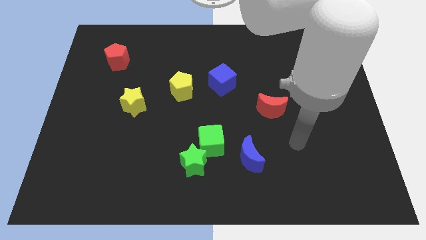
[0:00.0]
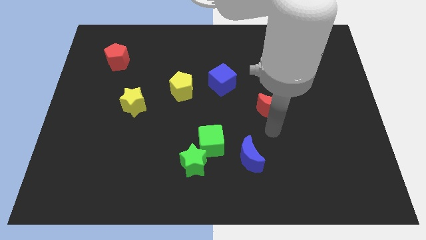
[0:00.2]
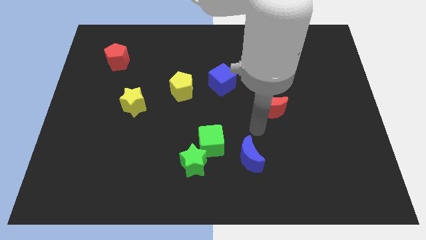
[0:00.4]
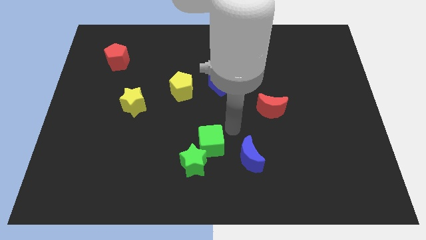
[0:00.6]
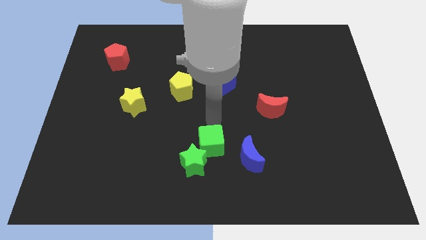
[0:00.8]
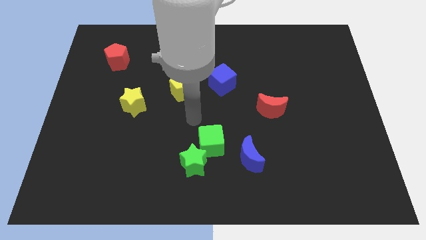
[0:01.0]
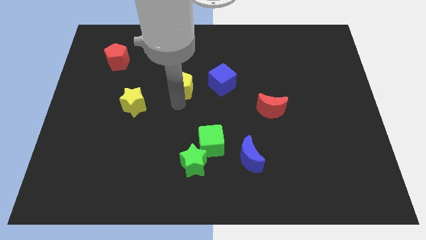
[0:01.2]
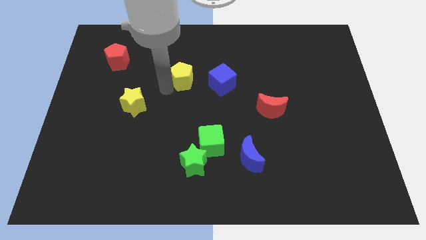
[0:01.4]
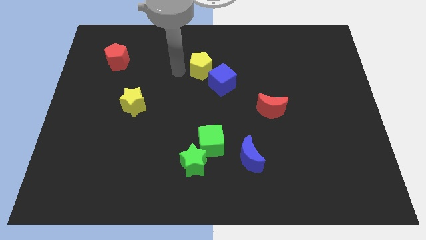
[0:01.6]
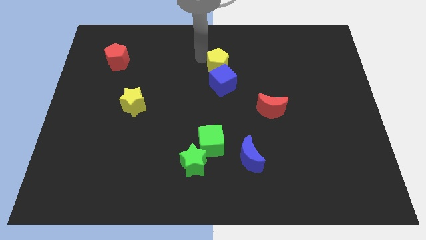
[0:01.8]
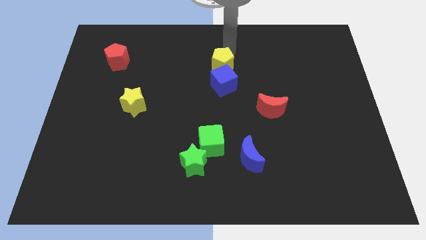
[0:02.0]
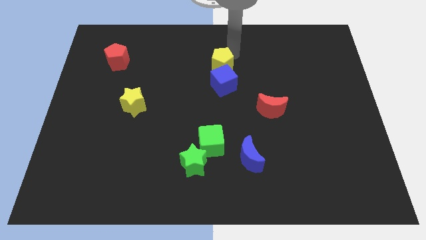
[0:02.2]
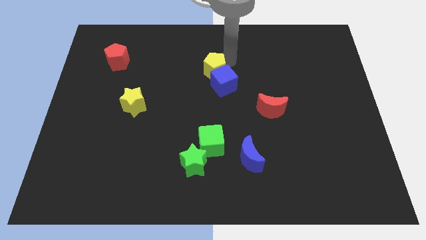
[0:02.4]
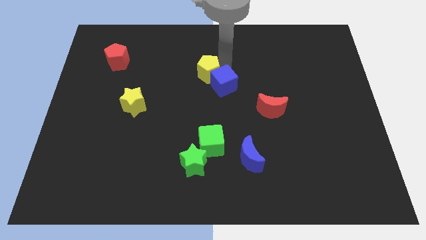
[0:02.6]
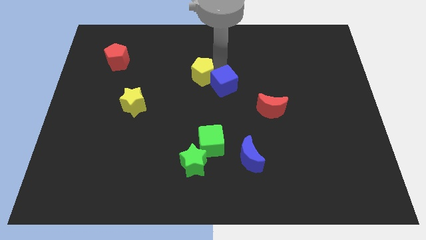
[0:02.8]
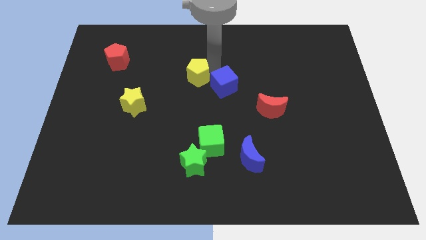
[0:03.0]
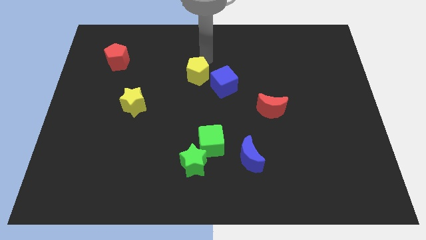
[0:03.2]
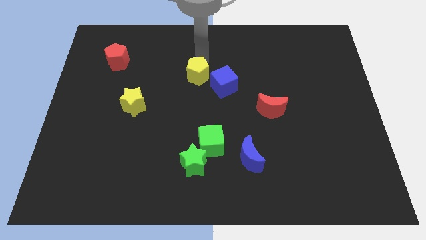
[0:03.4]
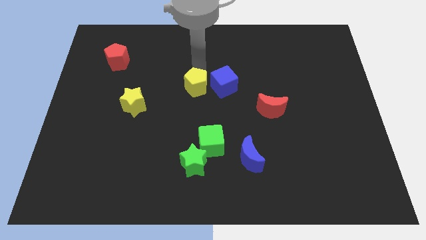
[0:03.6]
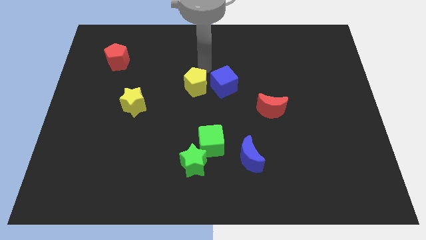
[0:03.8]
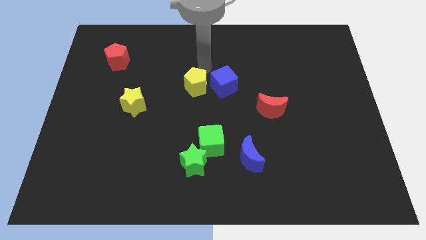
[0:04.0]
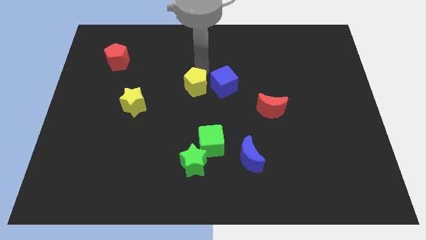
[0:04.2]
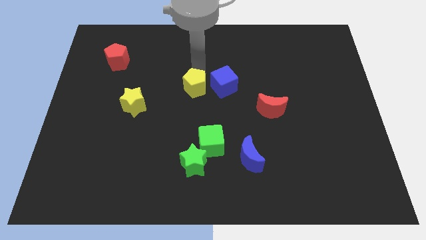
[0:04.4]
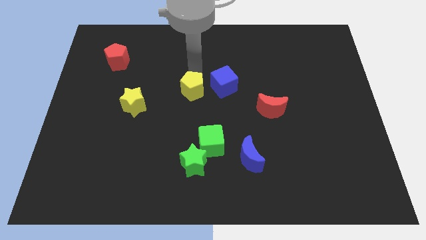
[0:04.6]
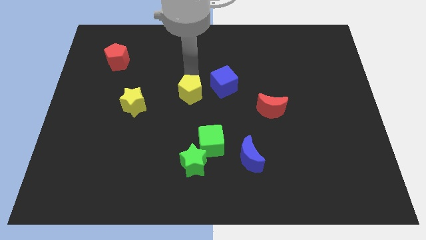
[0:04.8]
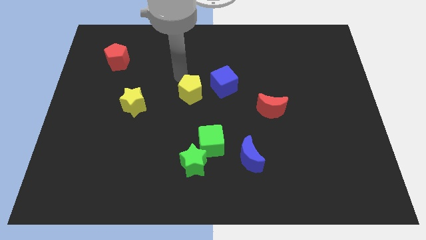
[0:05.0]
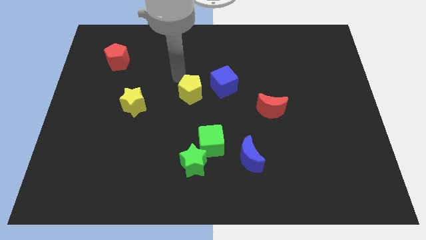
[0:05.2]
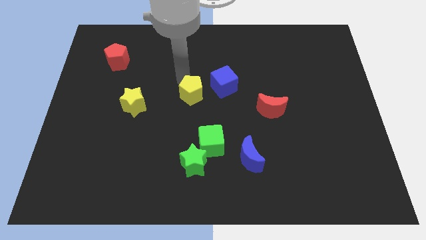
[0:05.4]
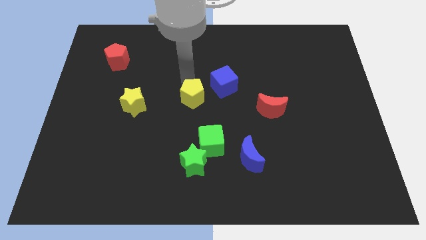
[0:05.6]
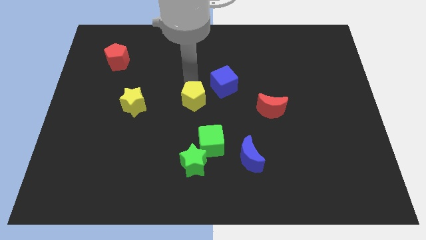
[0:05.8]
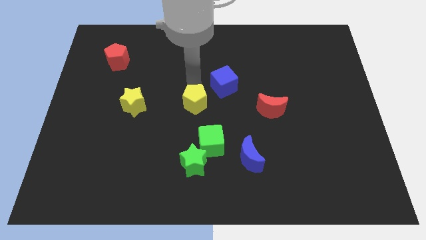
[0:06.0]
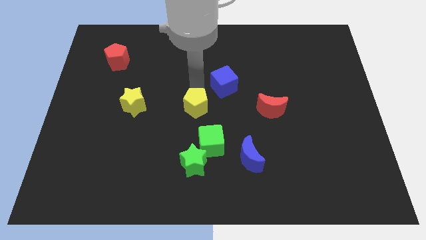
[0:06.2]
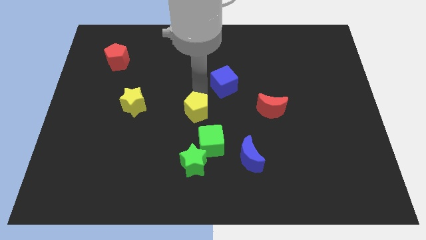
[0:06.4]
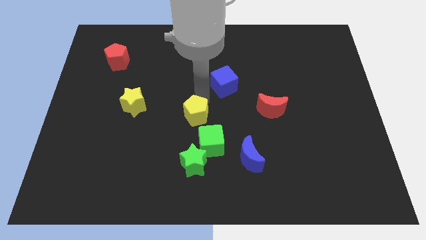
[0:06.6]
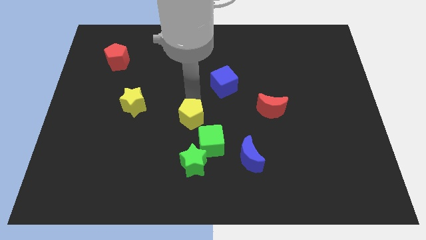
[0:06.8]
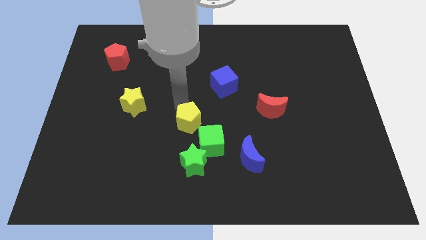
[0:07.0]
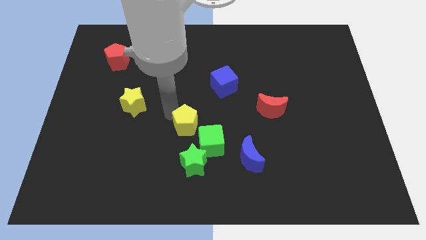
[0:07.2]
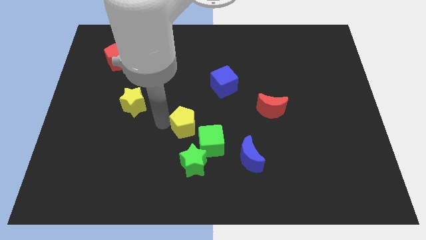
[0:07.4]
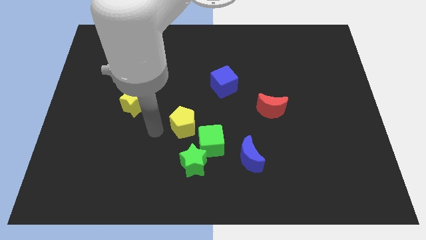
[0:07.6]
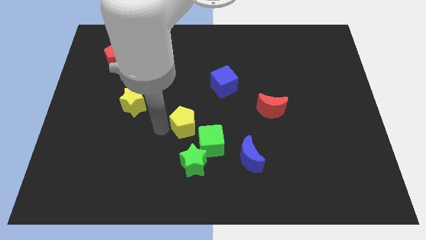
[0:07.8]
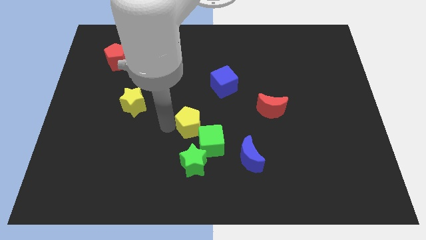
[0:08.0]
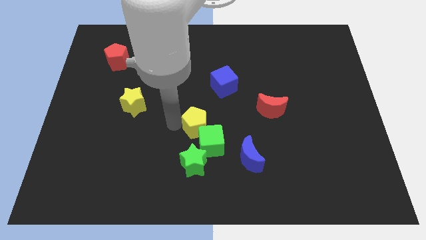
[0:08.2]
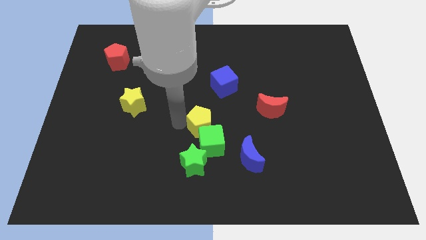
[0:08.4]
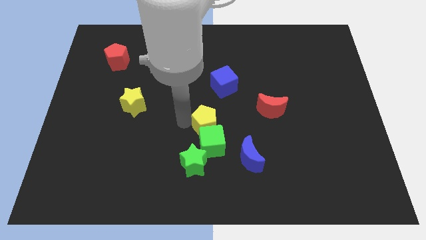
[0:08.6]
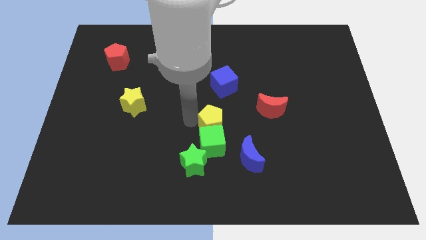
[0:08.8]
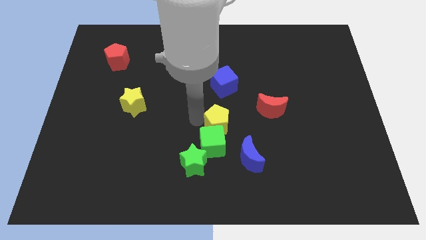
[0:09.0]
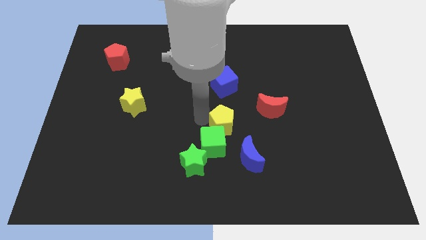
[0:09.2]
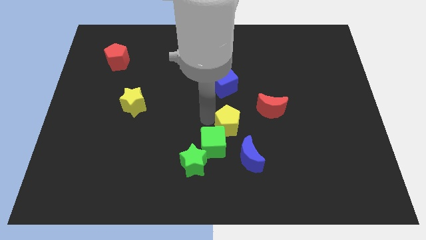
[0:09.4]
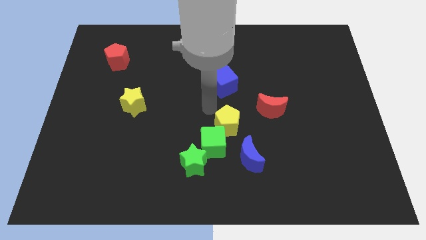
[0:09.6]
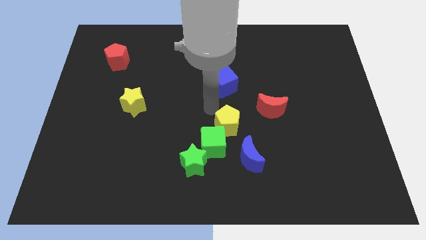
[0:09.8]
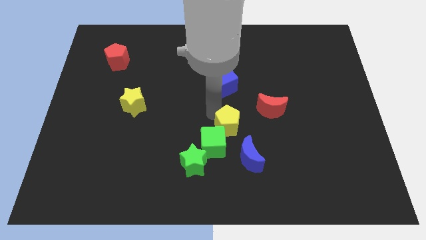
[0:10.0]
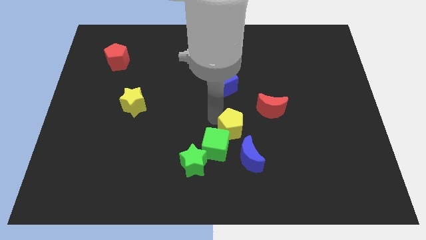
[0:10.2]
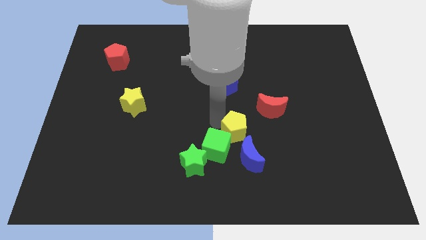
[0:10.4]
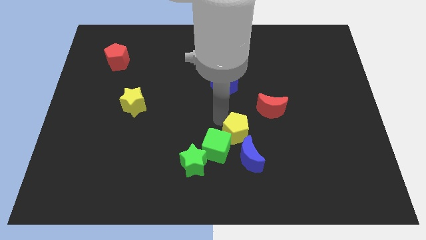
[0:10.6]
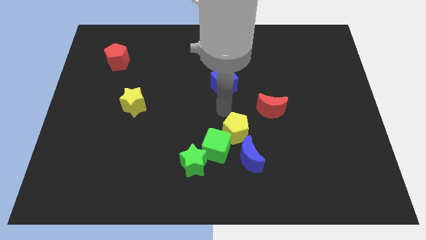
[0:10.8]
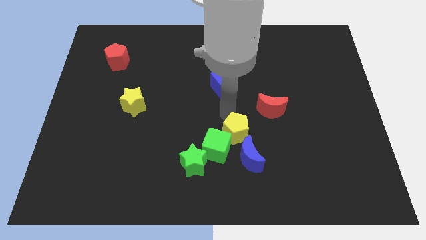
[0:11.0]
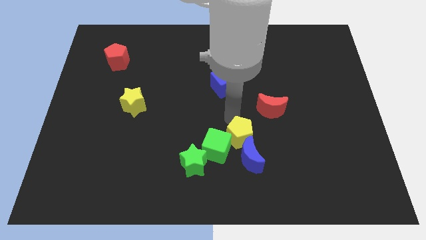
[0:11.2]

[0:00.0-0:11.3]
push the yellow pentagon towards the blue moon

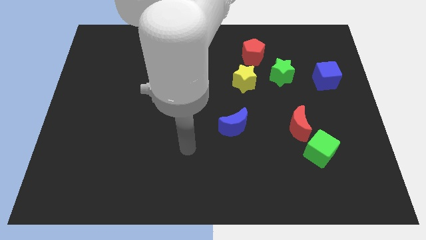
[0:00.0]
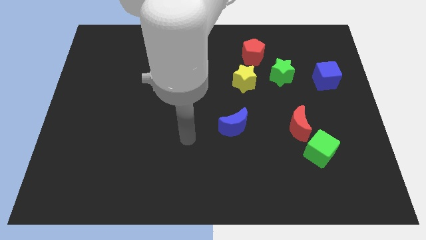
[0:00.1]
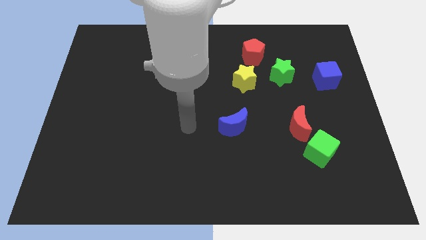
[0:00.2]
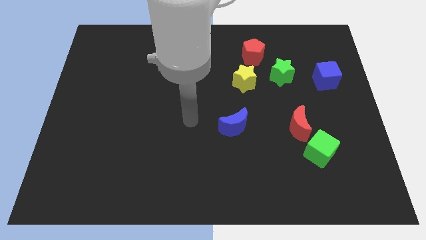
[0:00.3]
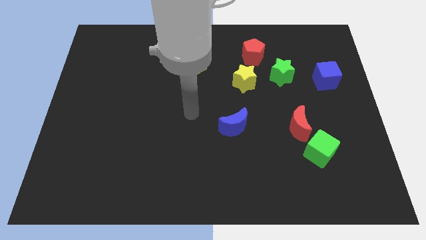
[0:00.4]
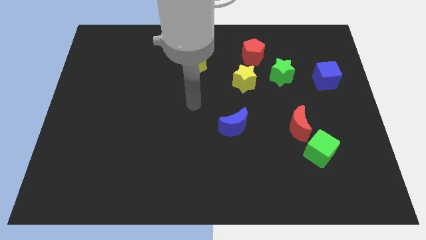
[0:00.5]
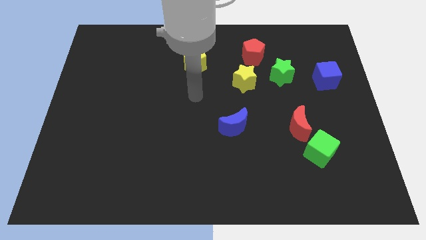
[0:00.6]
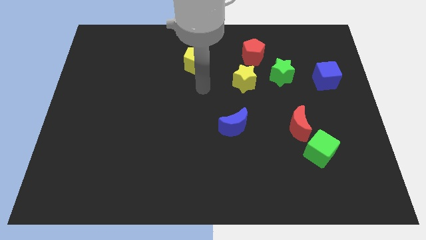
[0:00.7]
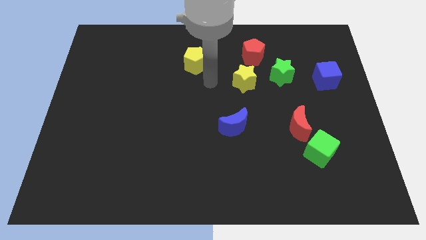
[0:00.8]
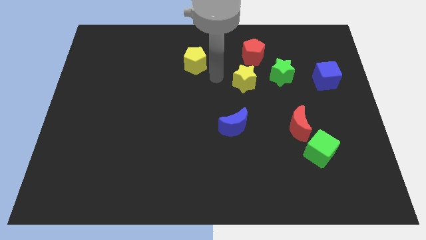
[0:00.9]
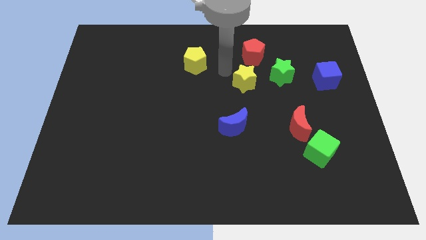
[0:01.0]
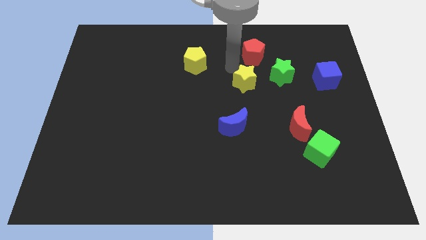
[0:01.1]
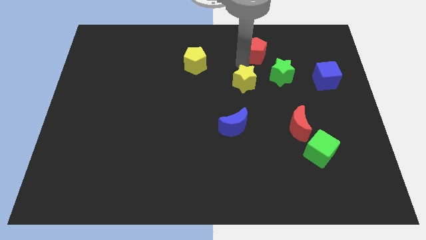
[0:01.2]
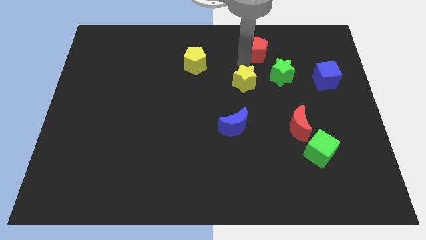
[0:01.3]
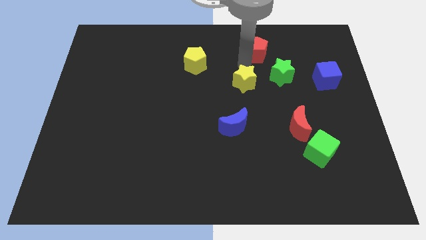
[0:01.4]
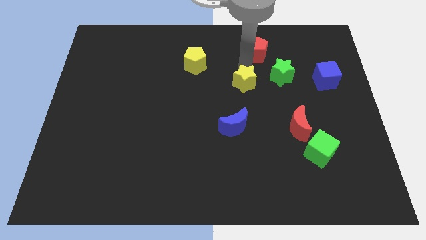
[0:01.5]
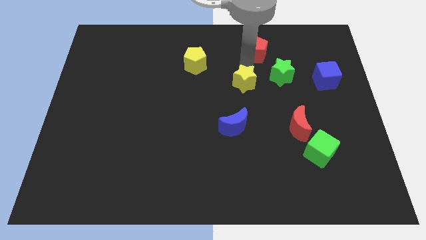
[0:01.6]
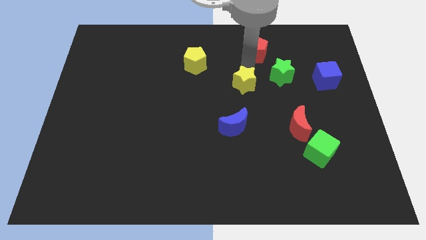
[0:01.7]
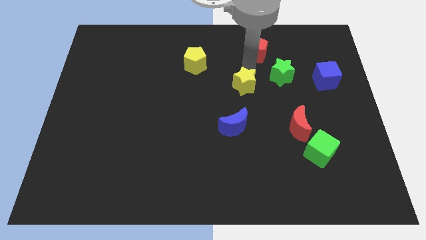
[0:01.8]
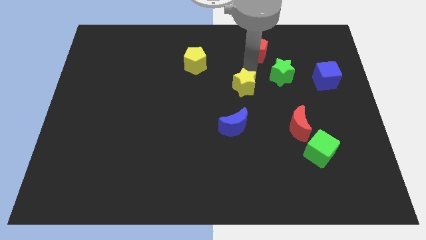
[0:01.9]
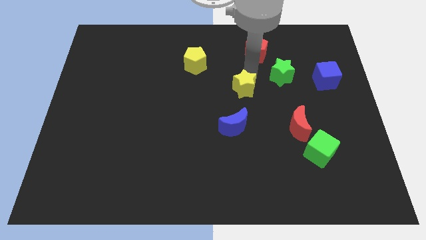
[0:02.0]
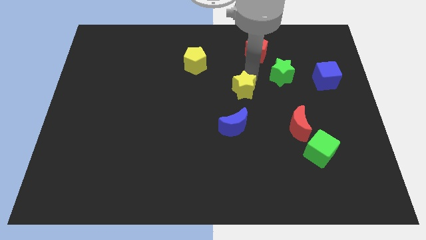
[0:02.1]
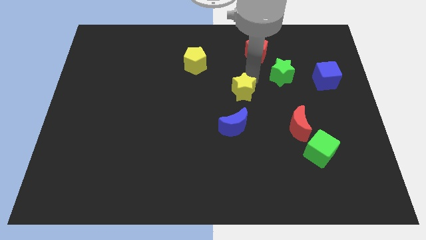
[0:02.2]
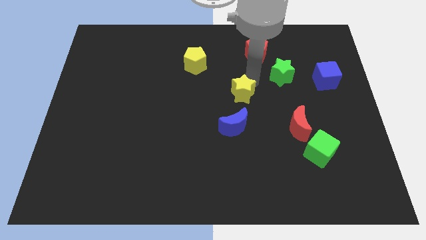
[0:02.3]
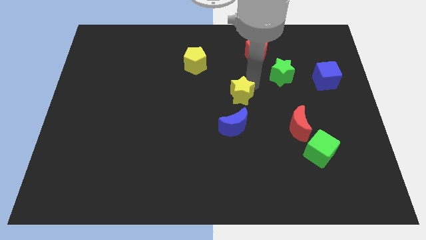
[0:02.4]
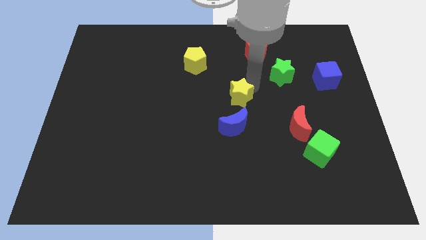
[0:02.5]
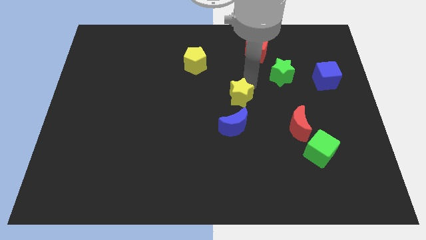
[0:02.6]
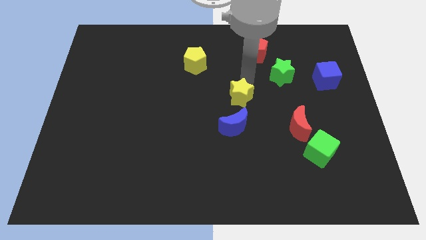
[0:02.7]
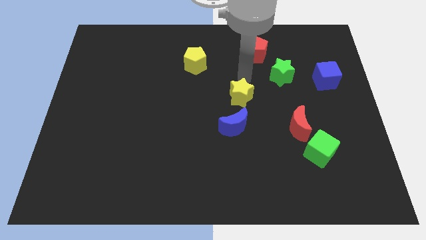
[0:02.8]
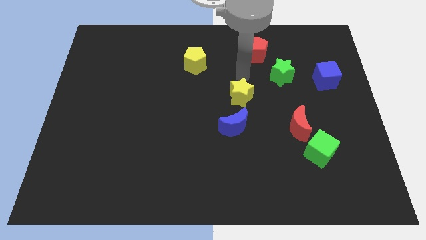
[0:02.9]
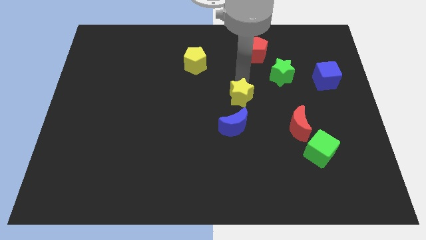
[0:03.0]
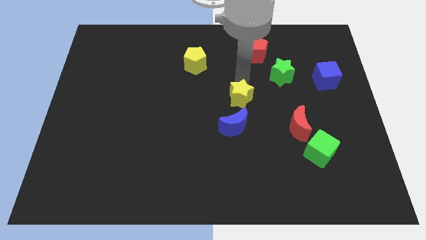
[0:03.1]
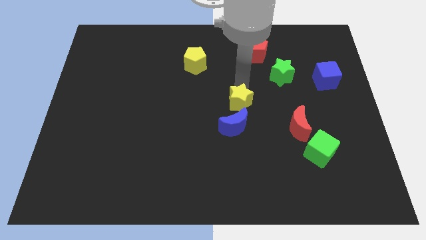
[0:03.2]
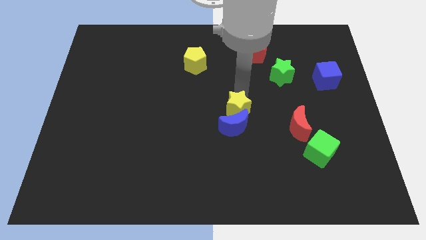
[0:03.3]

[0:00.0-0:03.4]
slide the yellow star to the blue moon
